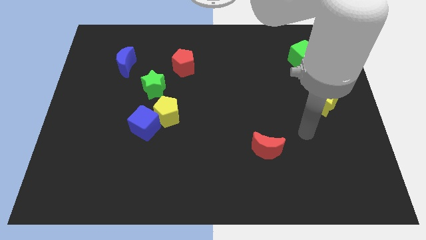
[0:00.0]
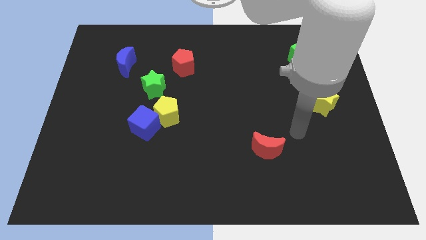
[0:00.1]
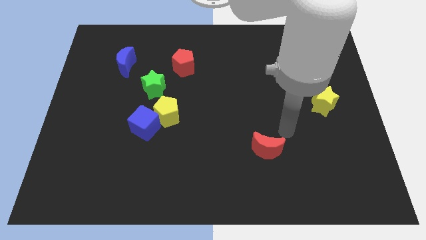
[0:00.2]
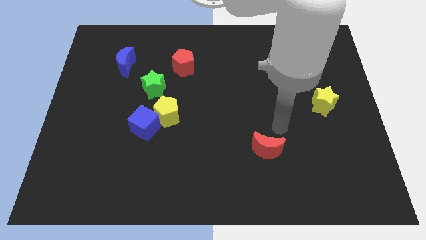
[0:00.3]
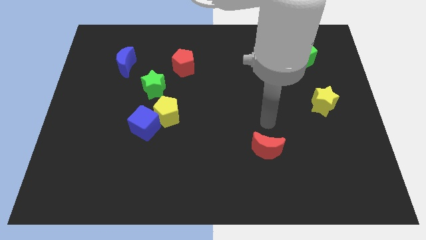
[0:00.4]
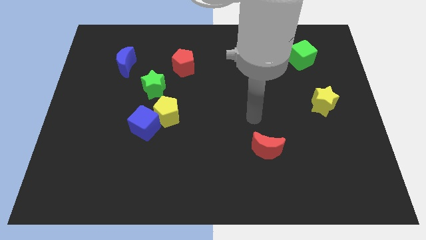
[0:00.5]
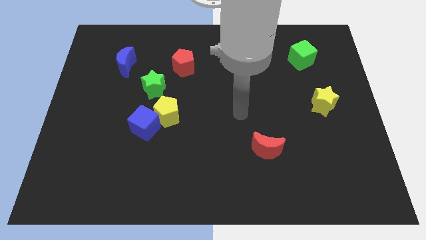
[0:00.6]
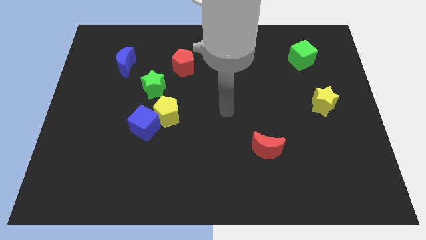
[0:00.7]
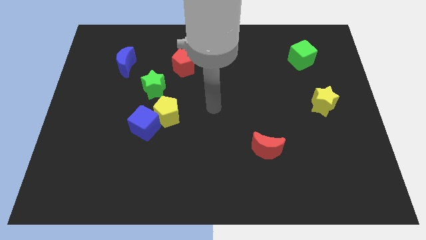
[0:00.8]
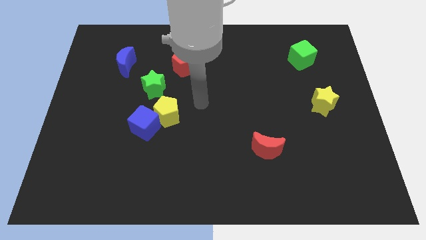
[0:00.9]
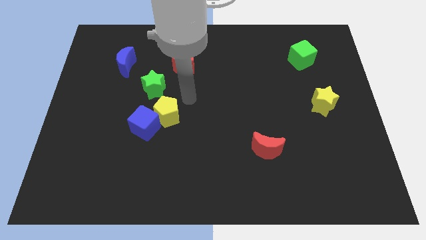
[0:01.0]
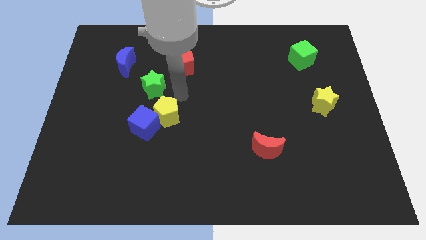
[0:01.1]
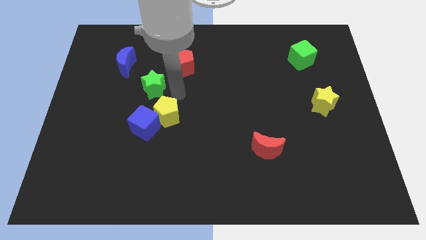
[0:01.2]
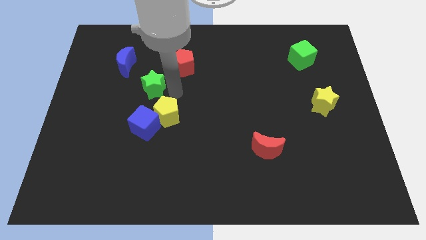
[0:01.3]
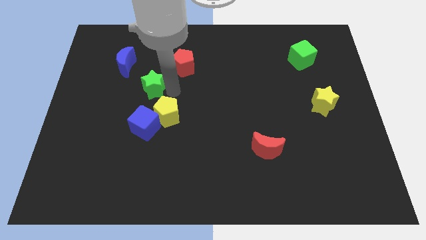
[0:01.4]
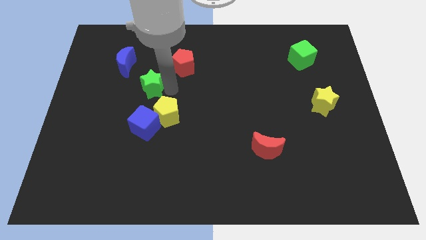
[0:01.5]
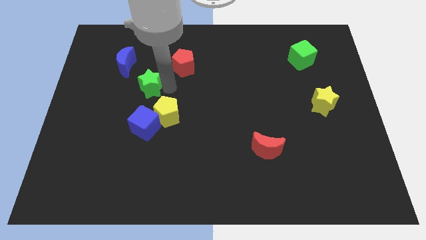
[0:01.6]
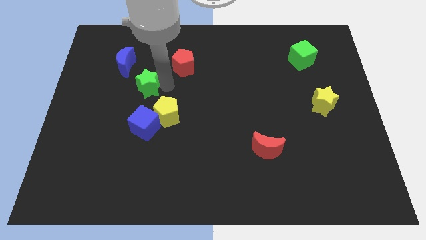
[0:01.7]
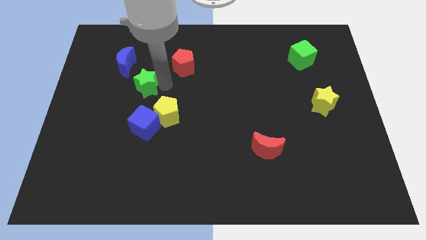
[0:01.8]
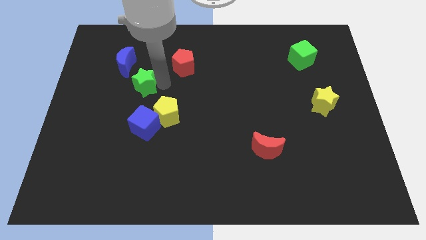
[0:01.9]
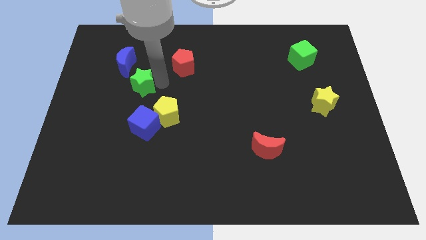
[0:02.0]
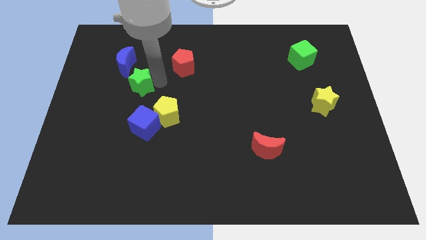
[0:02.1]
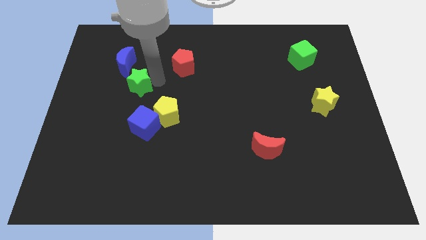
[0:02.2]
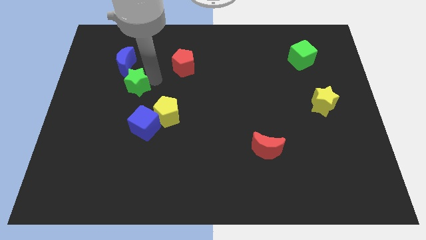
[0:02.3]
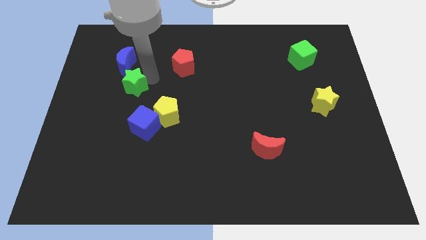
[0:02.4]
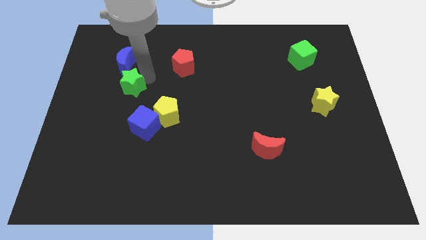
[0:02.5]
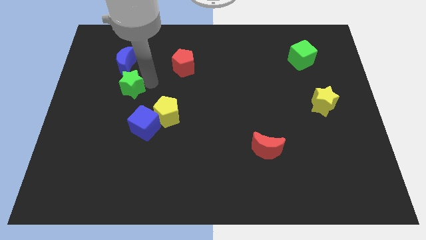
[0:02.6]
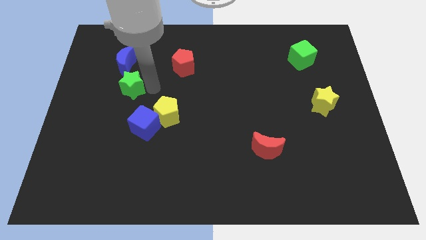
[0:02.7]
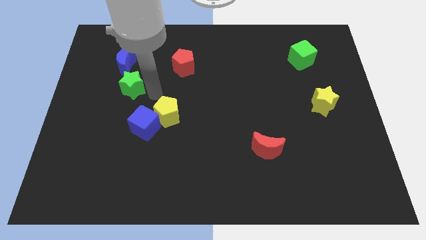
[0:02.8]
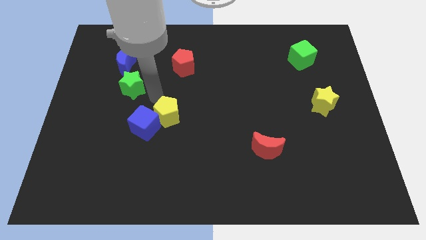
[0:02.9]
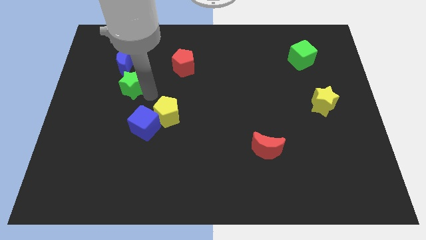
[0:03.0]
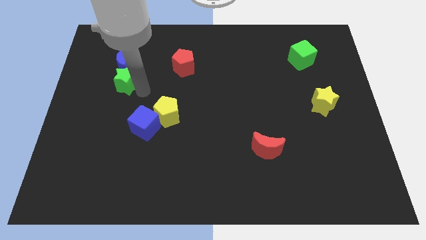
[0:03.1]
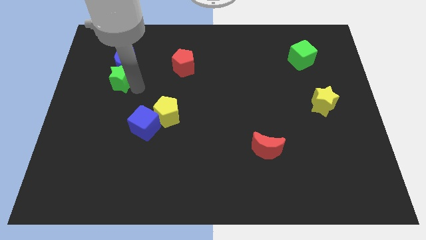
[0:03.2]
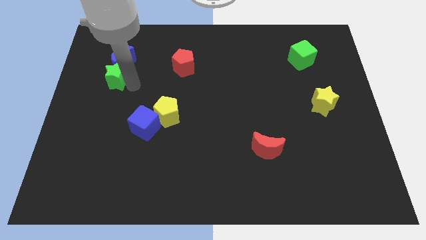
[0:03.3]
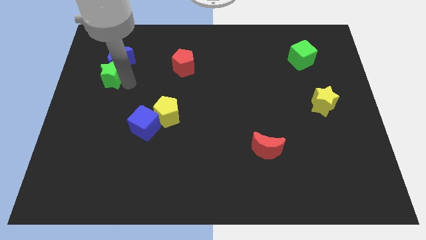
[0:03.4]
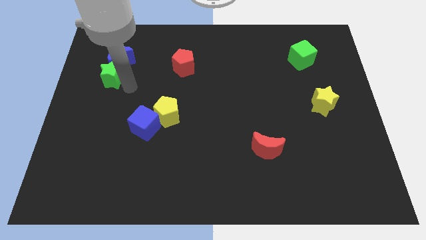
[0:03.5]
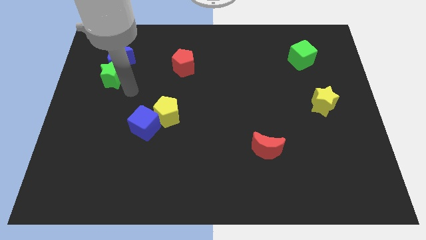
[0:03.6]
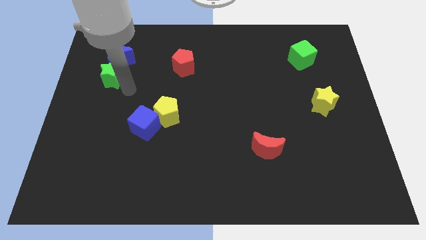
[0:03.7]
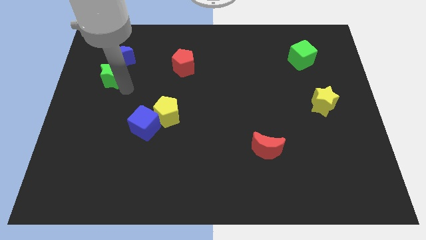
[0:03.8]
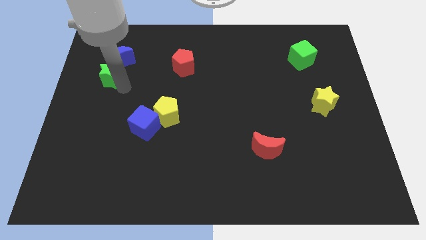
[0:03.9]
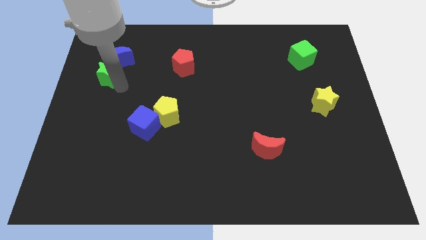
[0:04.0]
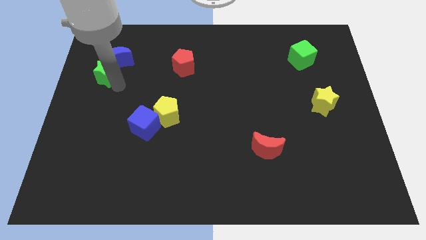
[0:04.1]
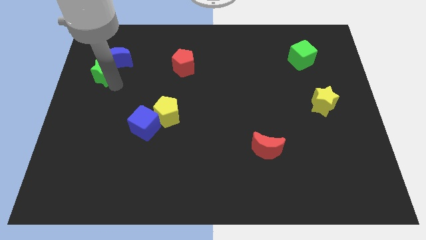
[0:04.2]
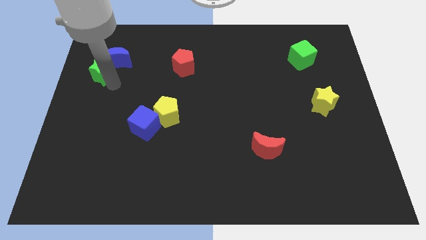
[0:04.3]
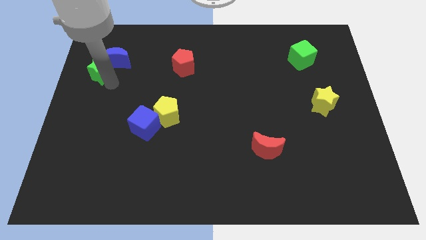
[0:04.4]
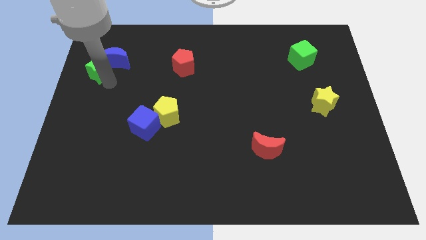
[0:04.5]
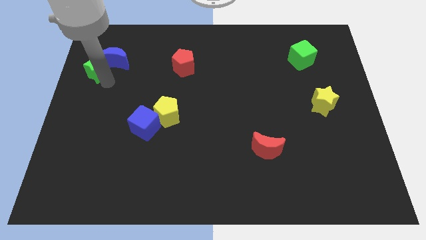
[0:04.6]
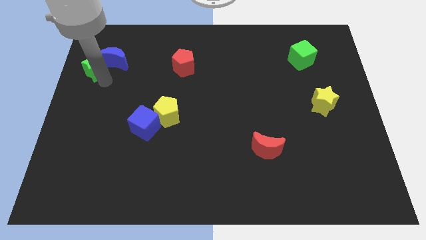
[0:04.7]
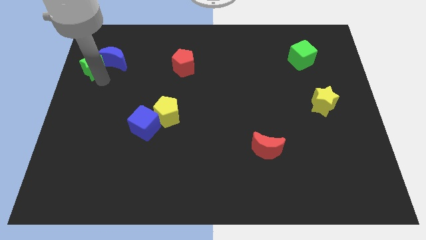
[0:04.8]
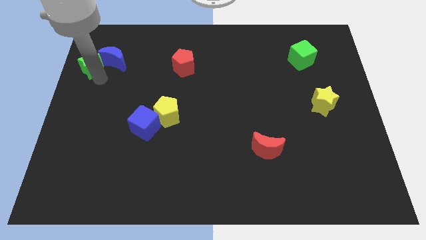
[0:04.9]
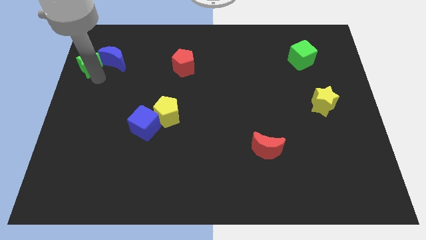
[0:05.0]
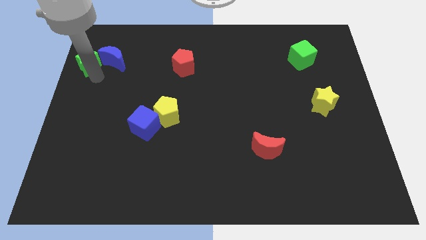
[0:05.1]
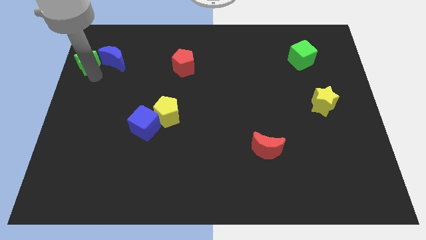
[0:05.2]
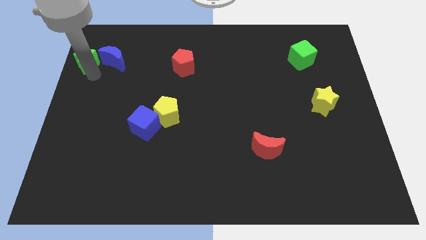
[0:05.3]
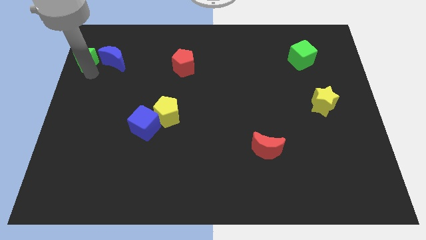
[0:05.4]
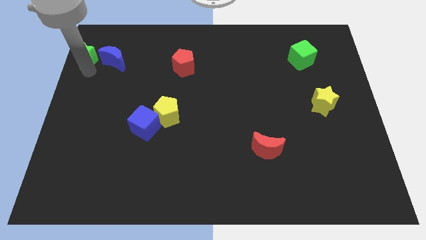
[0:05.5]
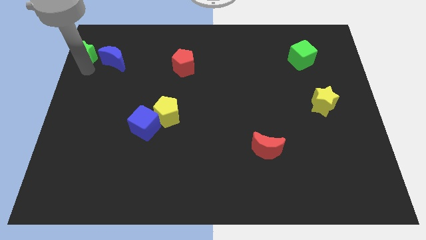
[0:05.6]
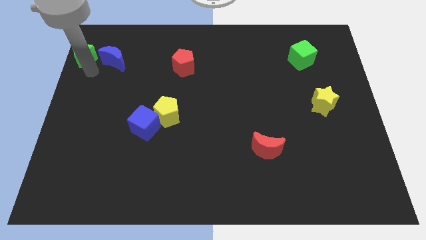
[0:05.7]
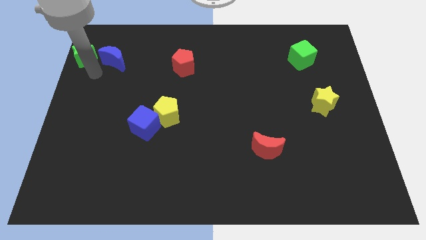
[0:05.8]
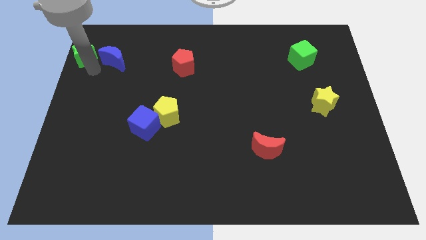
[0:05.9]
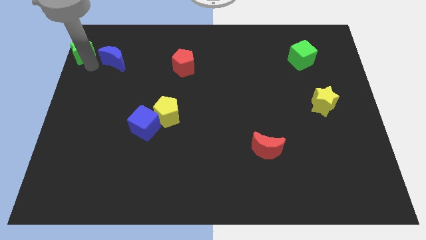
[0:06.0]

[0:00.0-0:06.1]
move the green star to the top left
